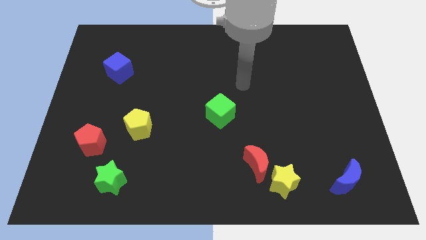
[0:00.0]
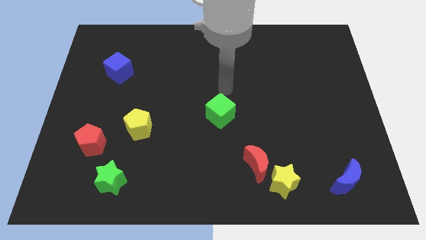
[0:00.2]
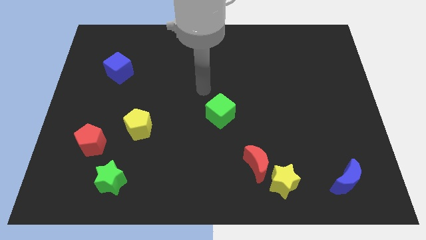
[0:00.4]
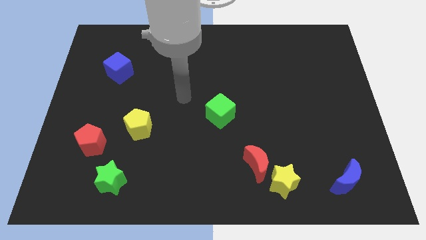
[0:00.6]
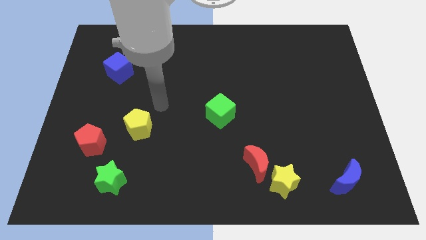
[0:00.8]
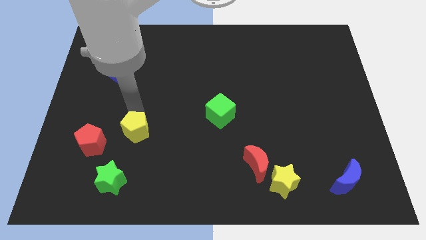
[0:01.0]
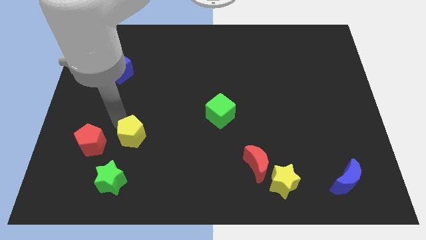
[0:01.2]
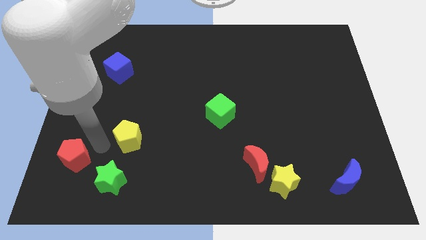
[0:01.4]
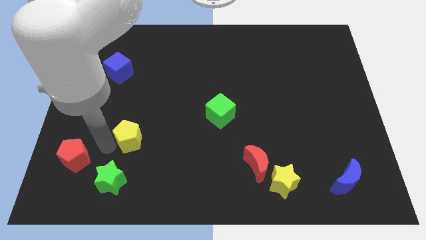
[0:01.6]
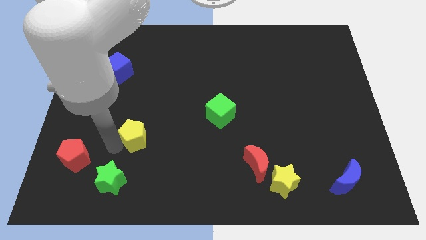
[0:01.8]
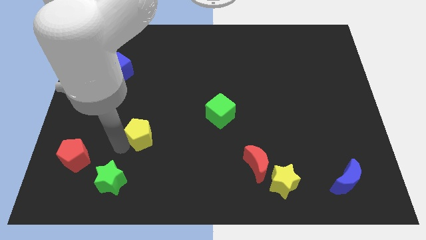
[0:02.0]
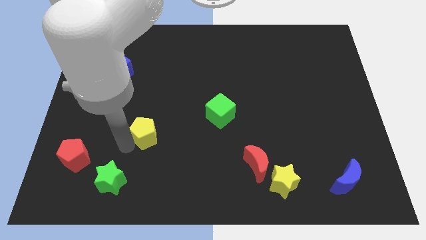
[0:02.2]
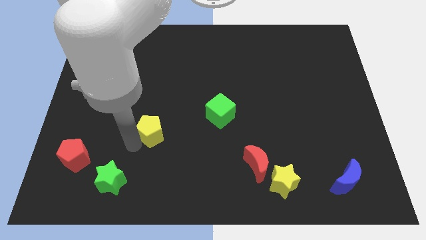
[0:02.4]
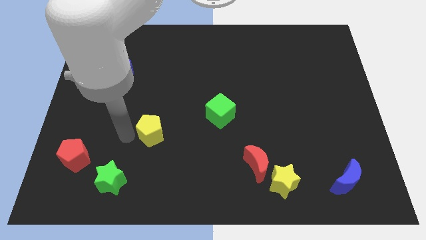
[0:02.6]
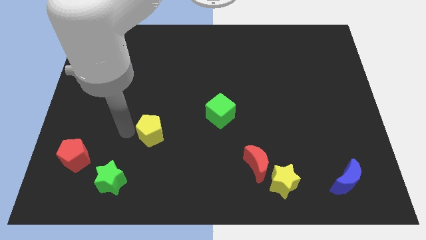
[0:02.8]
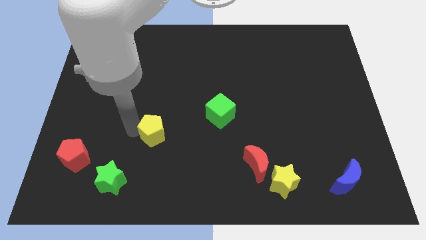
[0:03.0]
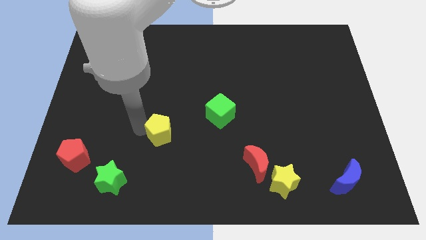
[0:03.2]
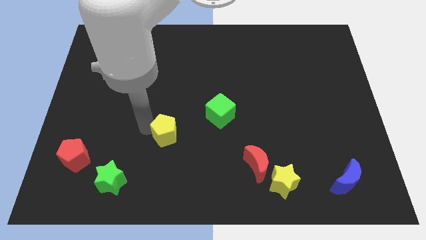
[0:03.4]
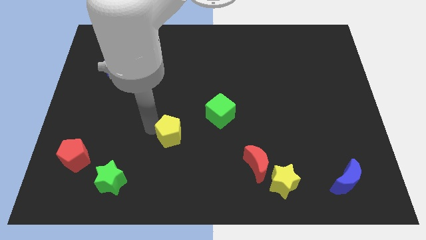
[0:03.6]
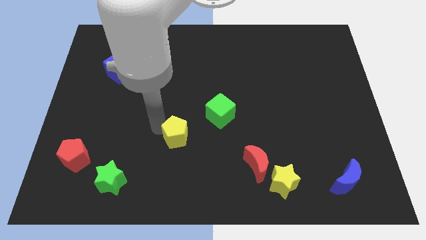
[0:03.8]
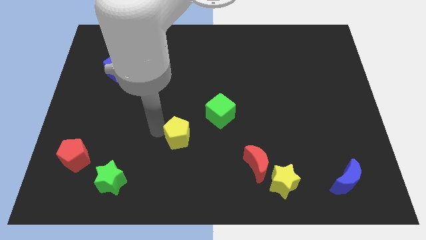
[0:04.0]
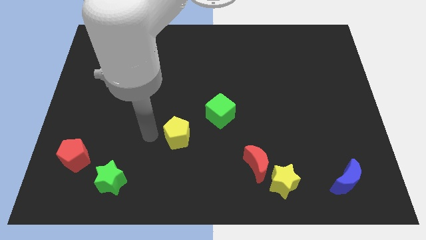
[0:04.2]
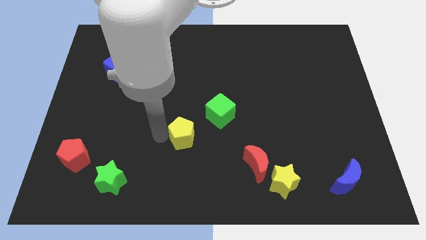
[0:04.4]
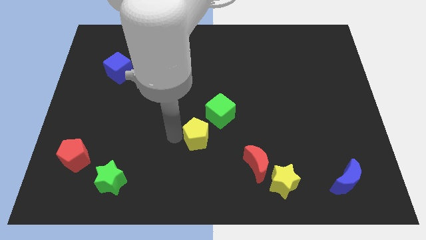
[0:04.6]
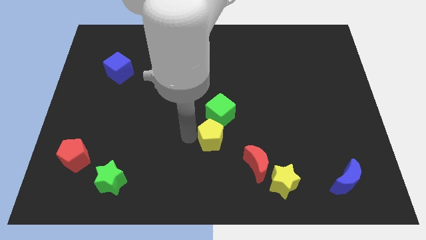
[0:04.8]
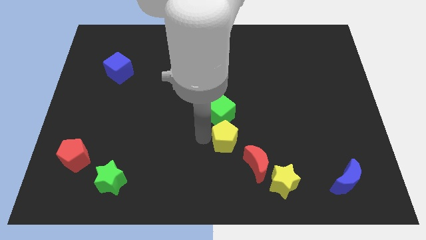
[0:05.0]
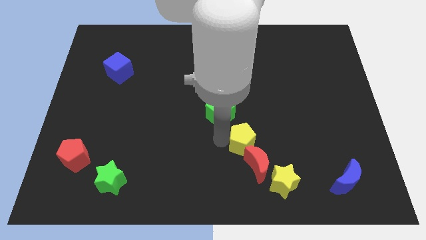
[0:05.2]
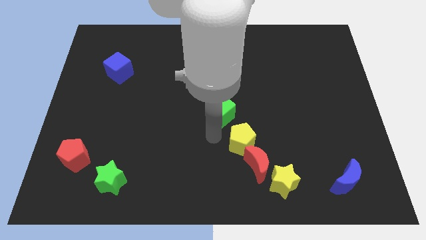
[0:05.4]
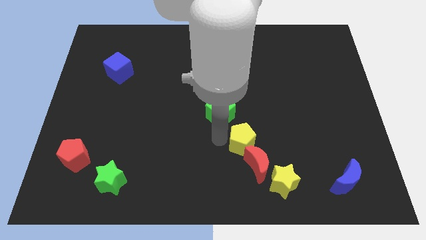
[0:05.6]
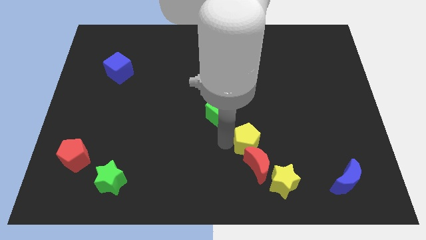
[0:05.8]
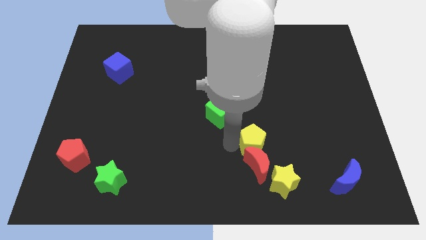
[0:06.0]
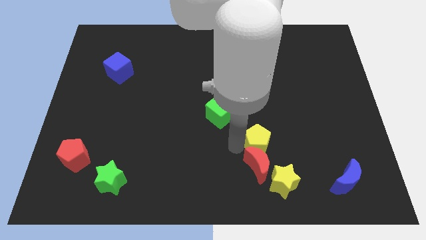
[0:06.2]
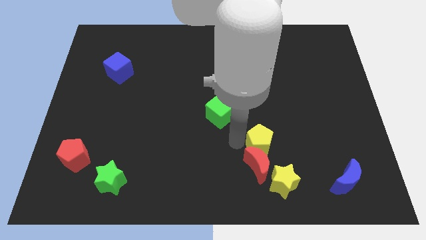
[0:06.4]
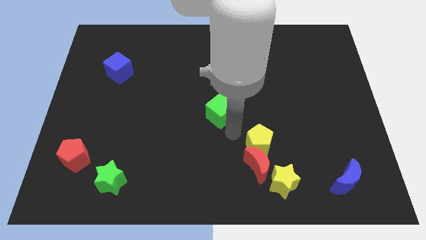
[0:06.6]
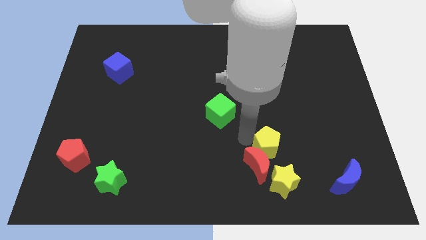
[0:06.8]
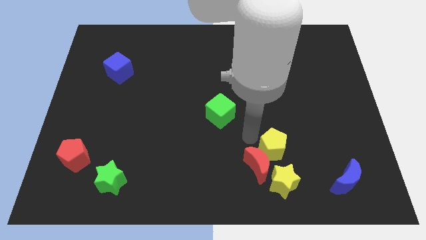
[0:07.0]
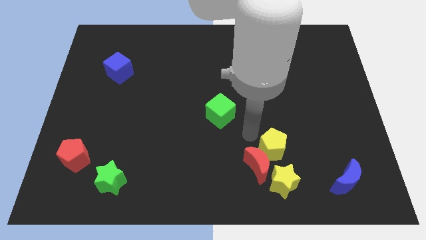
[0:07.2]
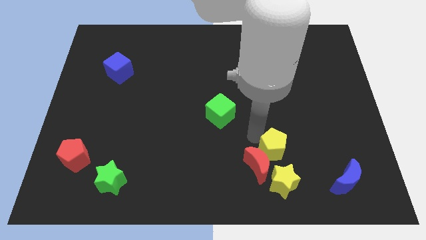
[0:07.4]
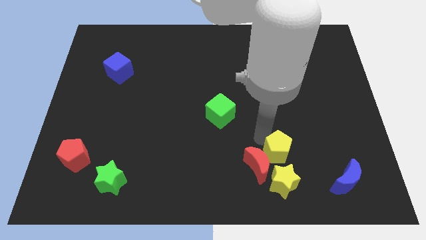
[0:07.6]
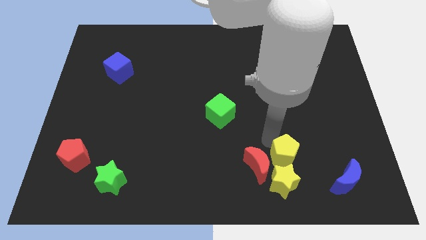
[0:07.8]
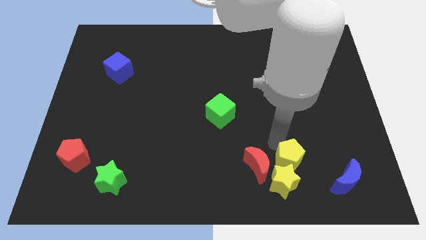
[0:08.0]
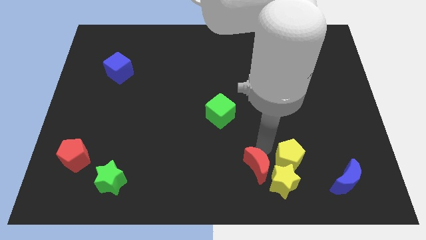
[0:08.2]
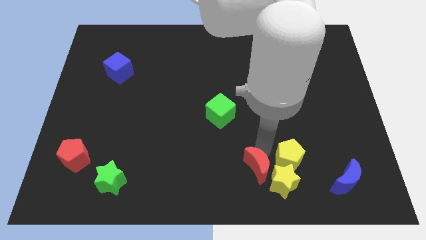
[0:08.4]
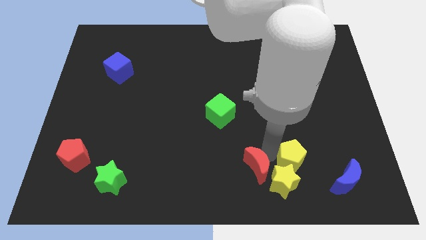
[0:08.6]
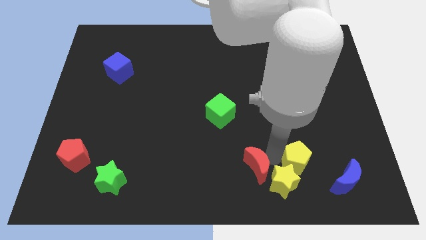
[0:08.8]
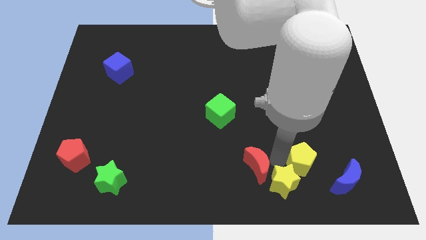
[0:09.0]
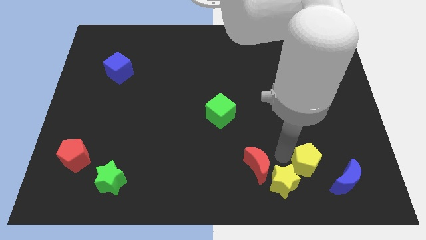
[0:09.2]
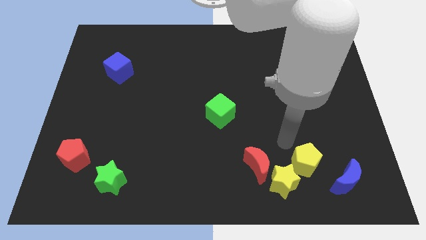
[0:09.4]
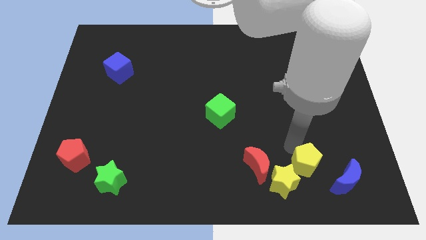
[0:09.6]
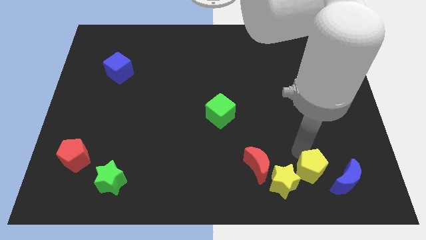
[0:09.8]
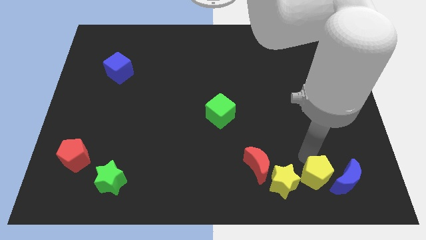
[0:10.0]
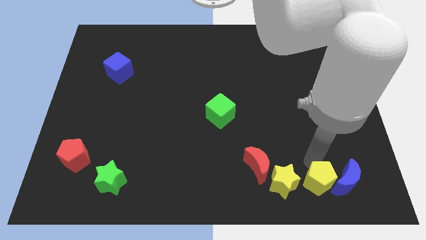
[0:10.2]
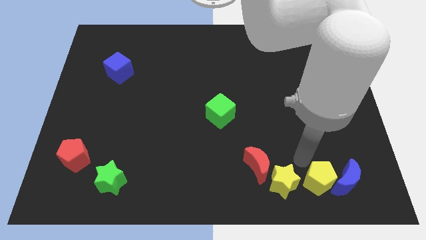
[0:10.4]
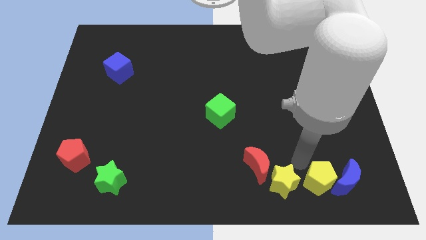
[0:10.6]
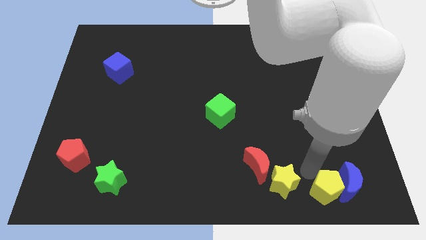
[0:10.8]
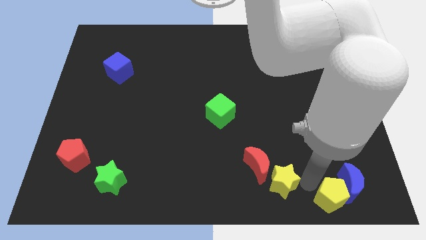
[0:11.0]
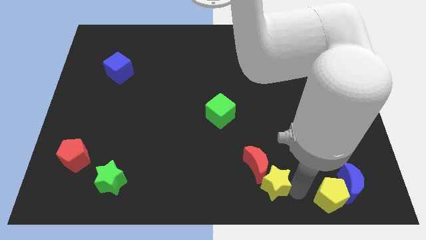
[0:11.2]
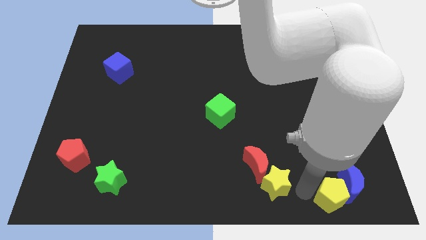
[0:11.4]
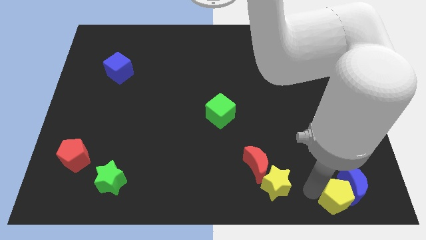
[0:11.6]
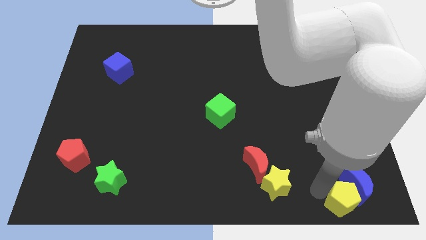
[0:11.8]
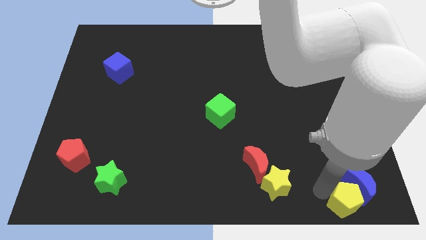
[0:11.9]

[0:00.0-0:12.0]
slide the yellow pentagon to the bottom right corner
